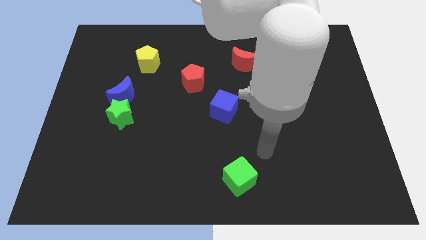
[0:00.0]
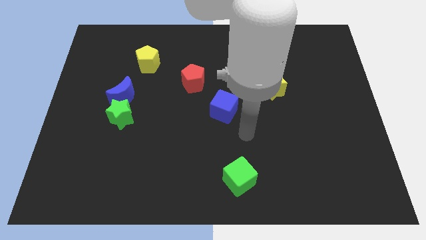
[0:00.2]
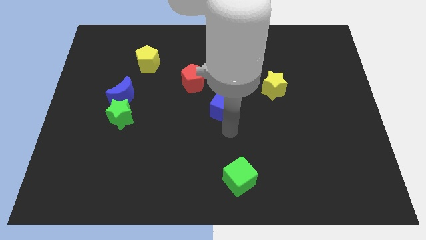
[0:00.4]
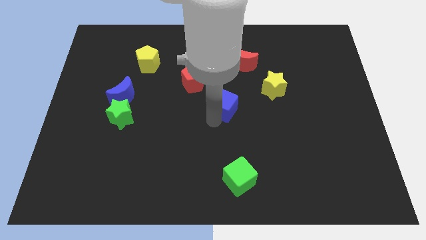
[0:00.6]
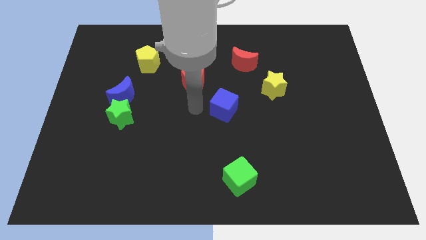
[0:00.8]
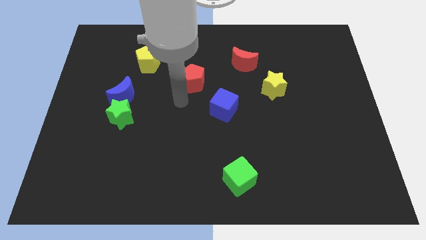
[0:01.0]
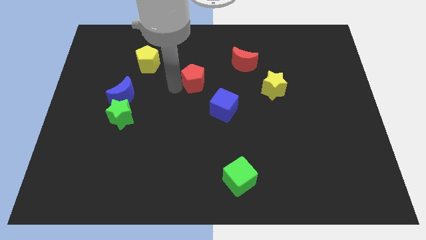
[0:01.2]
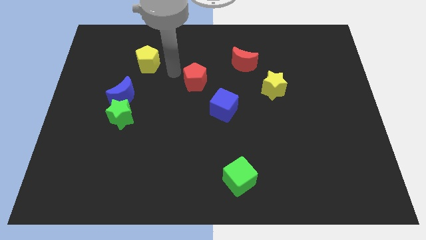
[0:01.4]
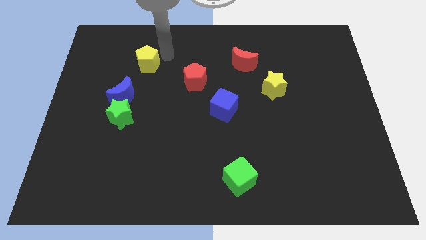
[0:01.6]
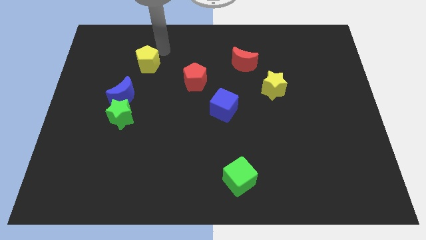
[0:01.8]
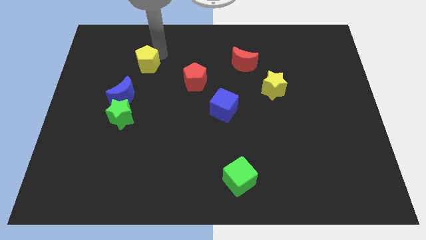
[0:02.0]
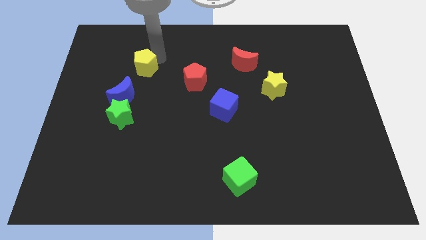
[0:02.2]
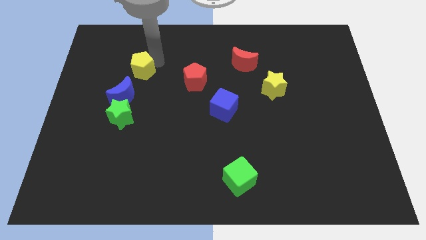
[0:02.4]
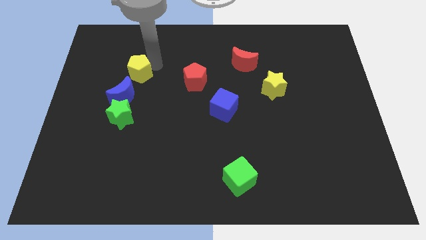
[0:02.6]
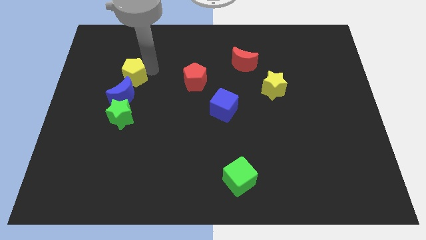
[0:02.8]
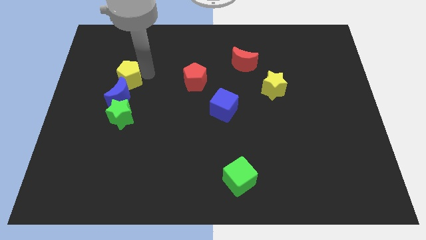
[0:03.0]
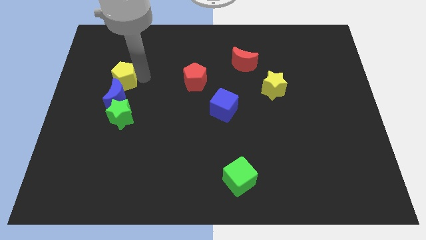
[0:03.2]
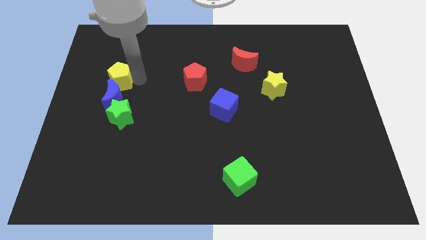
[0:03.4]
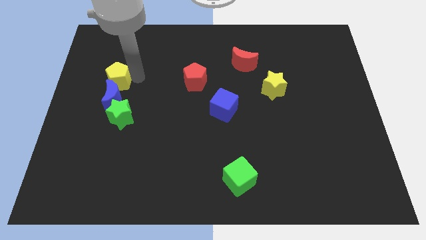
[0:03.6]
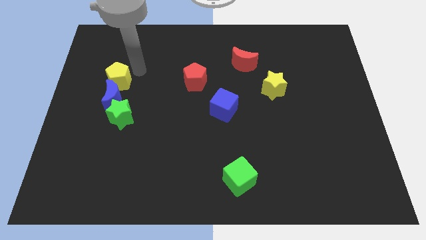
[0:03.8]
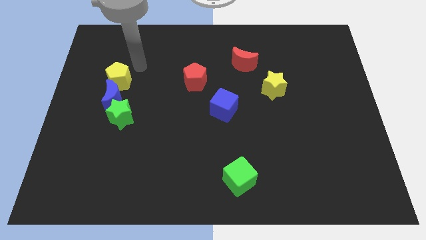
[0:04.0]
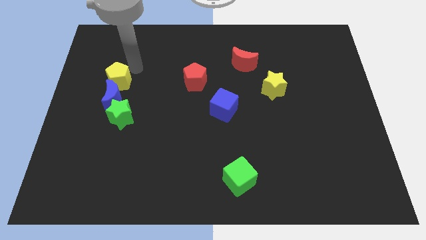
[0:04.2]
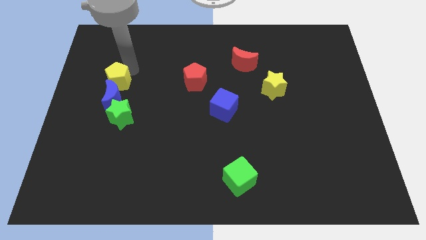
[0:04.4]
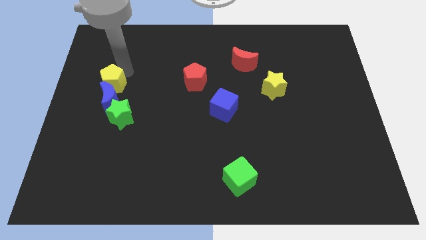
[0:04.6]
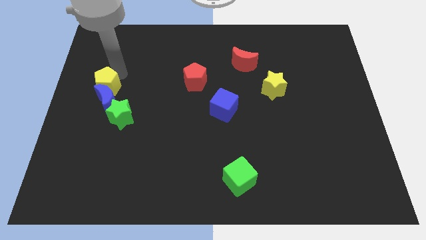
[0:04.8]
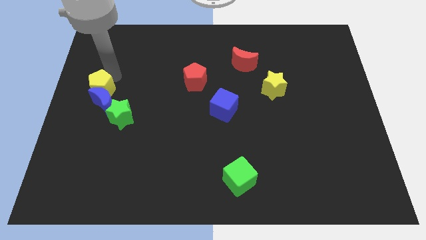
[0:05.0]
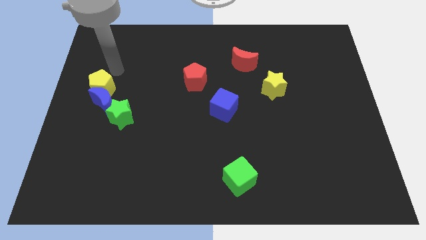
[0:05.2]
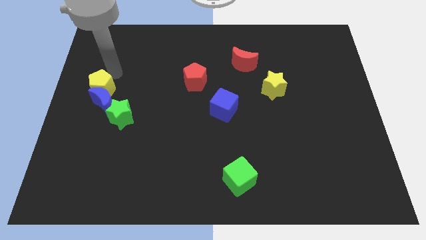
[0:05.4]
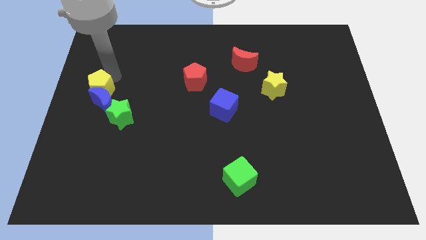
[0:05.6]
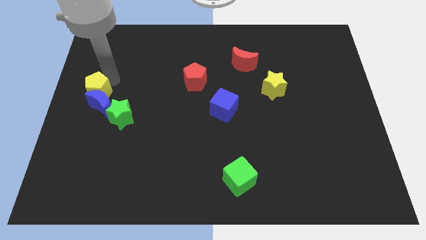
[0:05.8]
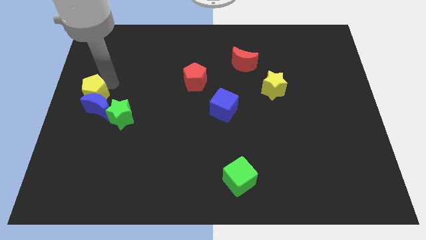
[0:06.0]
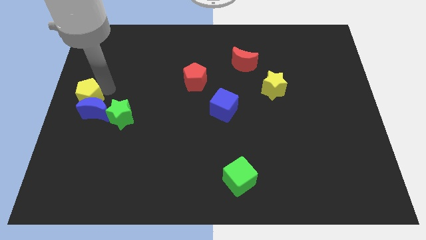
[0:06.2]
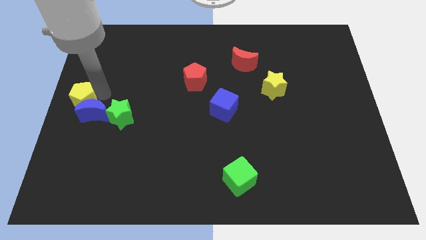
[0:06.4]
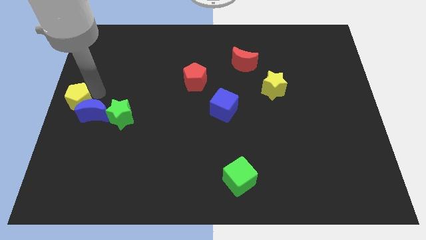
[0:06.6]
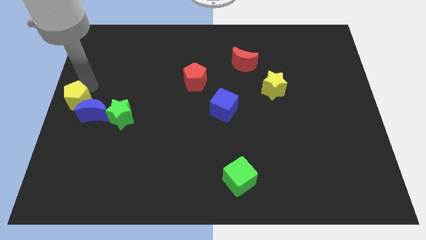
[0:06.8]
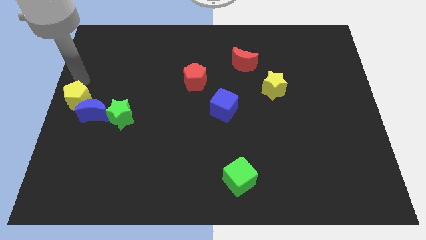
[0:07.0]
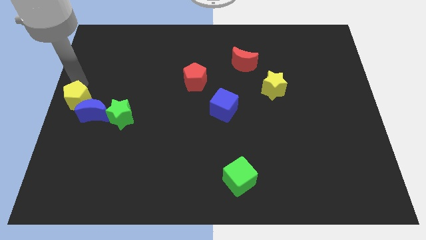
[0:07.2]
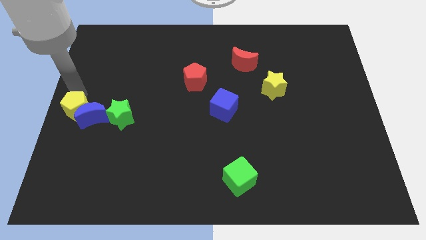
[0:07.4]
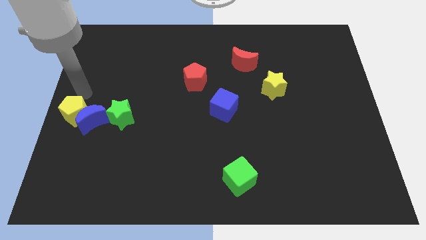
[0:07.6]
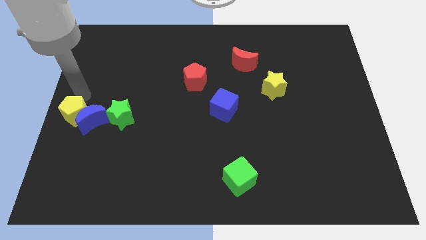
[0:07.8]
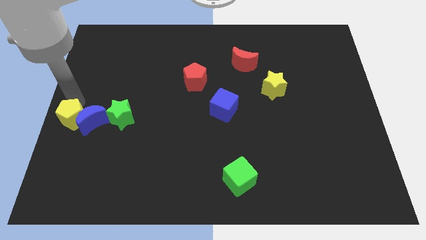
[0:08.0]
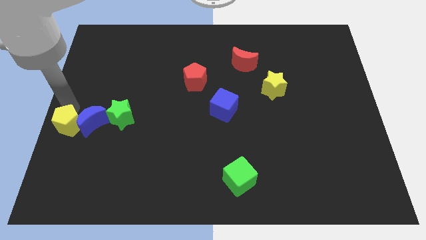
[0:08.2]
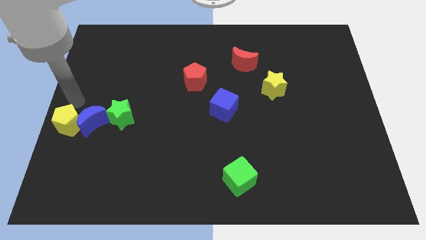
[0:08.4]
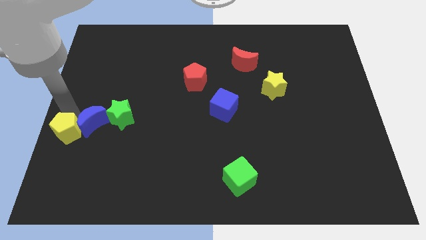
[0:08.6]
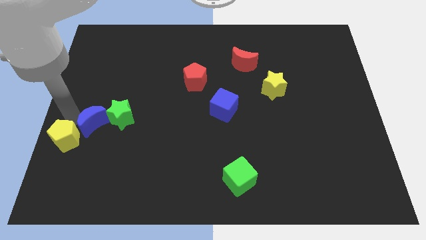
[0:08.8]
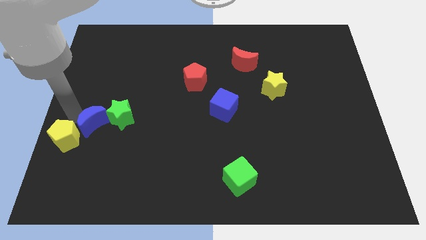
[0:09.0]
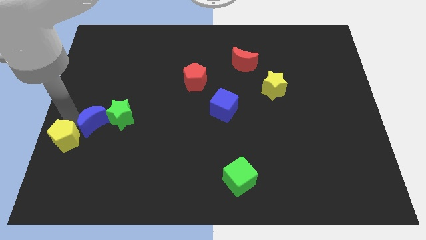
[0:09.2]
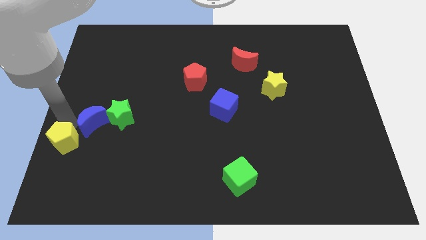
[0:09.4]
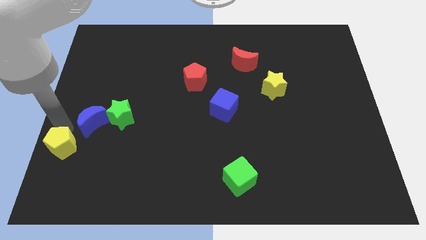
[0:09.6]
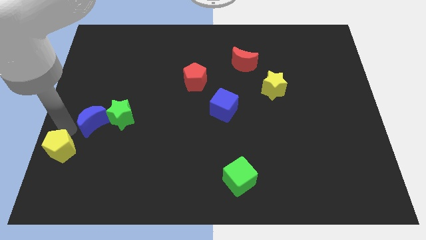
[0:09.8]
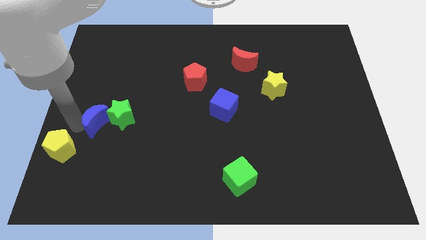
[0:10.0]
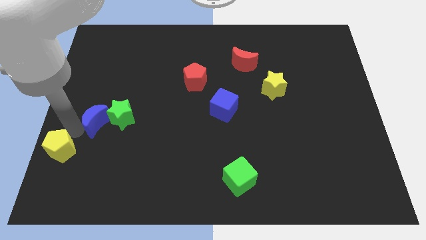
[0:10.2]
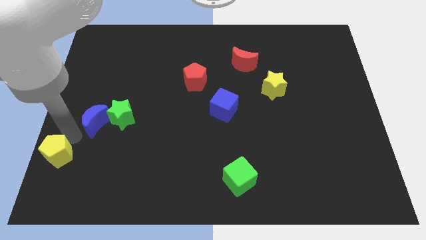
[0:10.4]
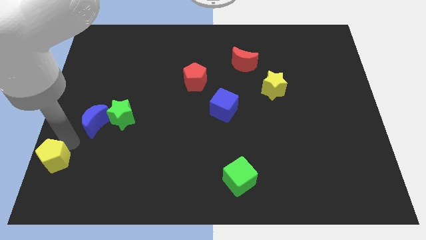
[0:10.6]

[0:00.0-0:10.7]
move the yellow pentagon to the bottom left corner
